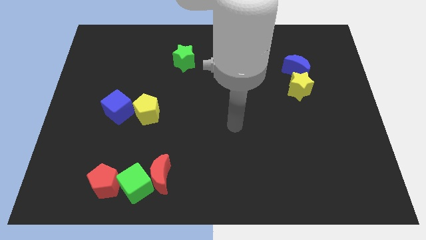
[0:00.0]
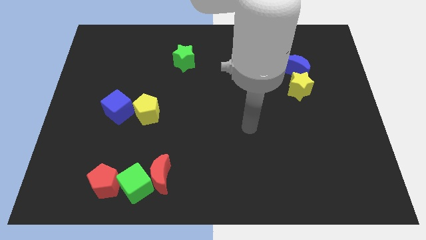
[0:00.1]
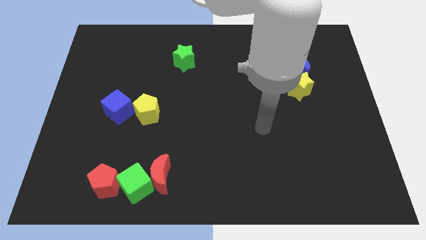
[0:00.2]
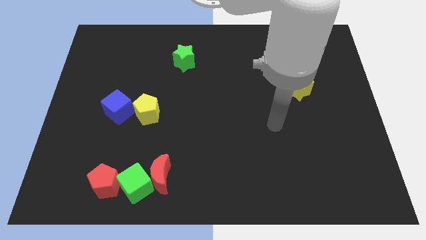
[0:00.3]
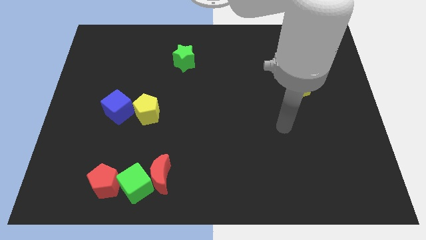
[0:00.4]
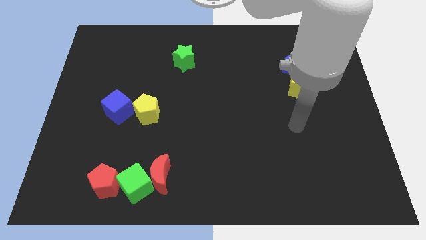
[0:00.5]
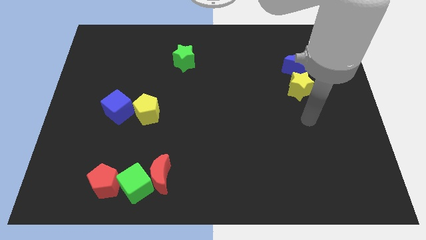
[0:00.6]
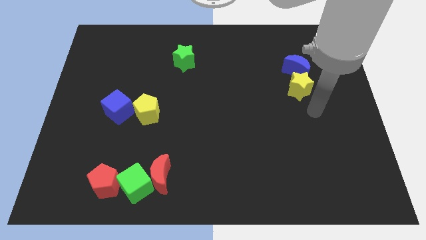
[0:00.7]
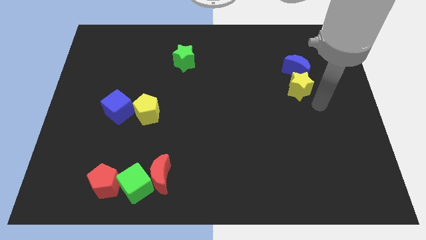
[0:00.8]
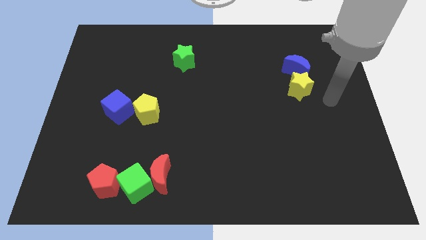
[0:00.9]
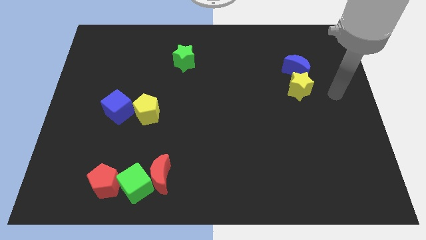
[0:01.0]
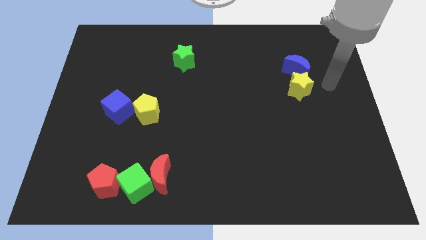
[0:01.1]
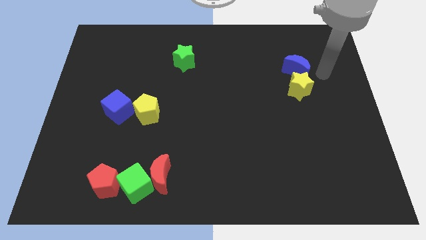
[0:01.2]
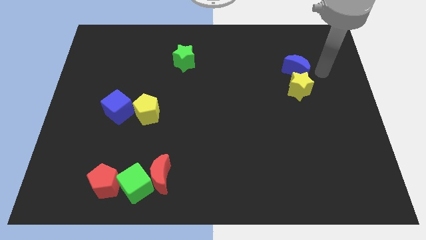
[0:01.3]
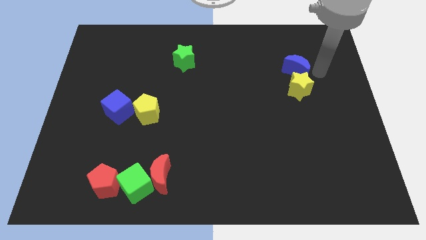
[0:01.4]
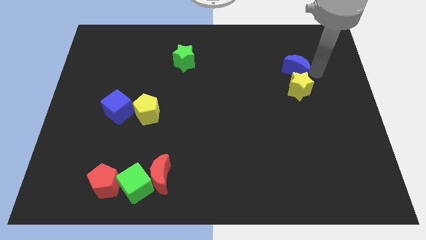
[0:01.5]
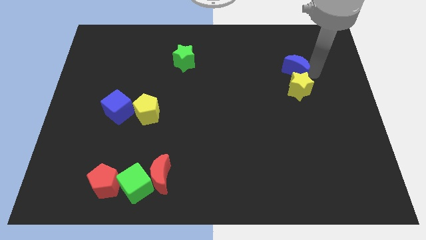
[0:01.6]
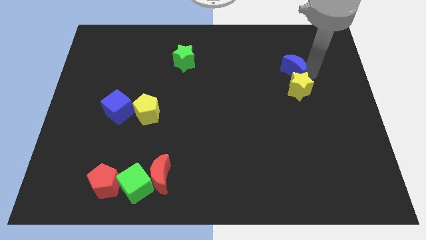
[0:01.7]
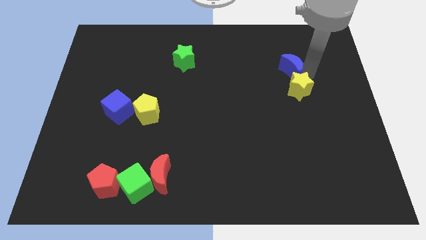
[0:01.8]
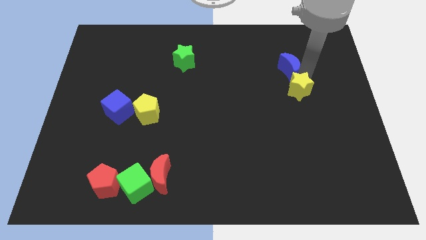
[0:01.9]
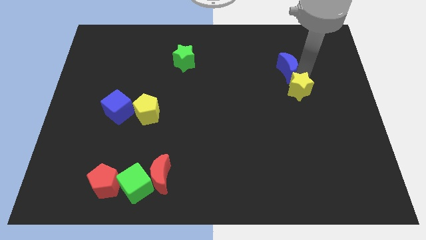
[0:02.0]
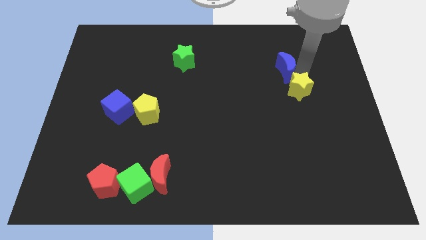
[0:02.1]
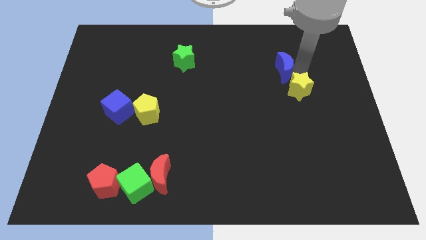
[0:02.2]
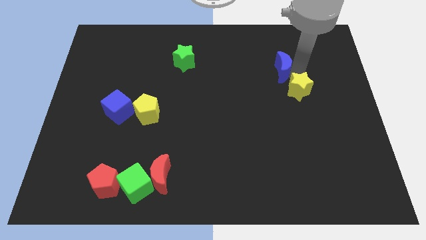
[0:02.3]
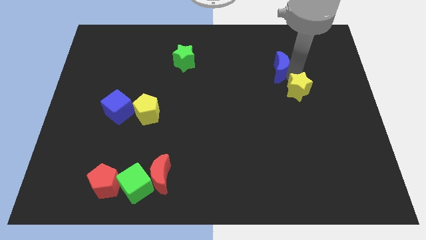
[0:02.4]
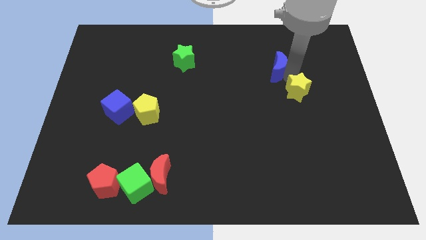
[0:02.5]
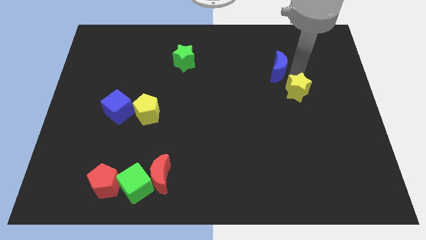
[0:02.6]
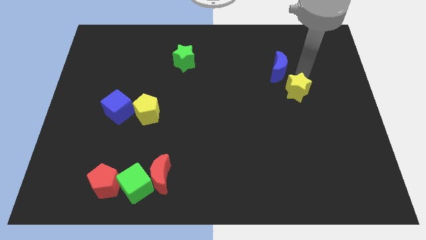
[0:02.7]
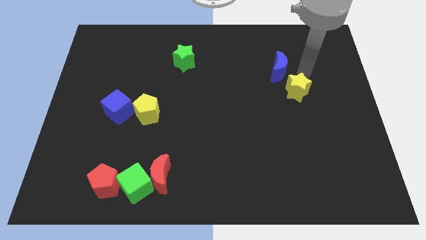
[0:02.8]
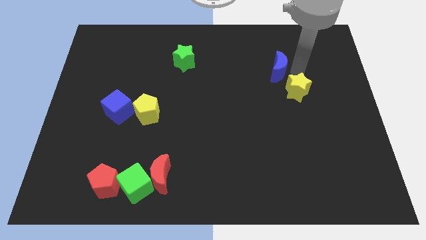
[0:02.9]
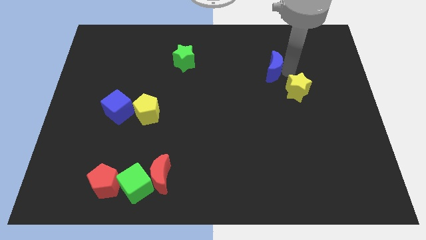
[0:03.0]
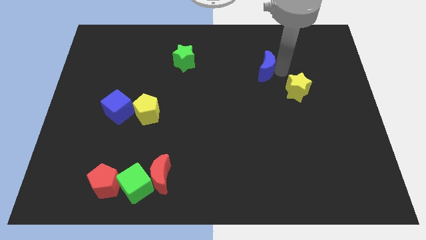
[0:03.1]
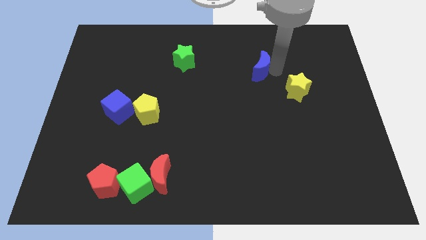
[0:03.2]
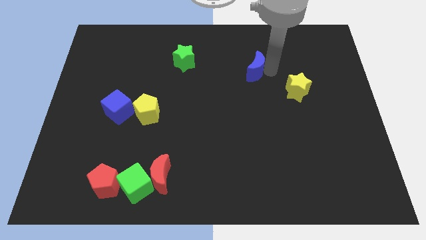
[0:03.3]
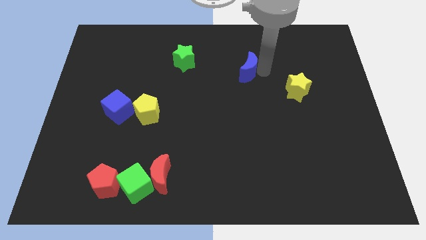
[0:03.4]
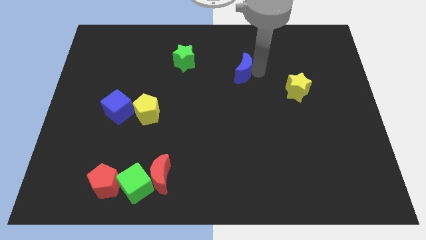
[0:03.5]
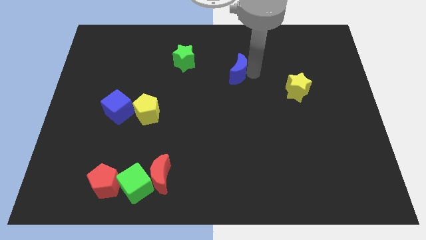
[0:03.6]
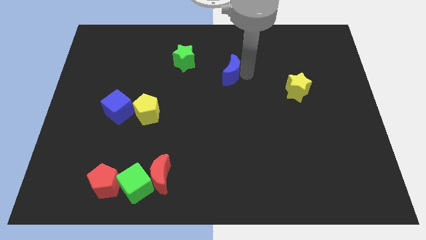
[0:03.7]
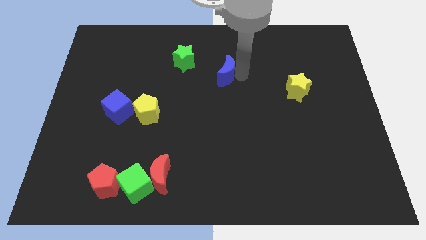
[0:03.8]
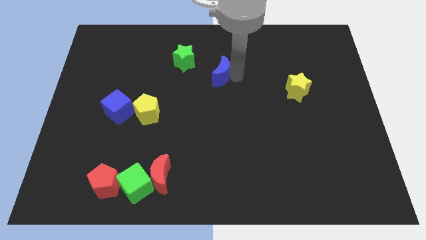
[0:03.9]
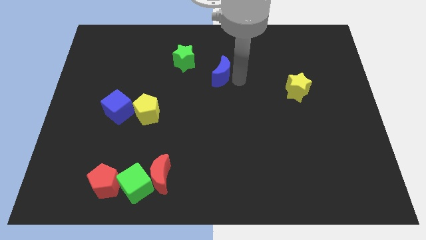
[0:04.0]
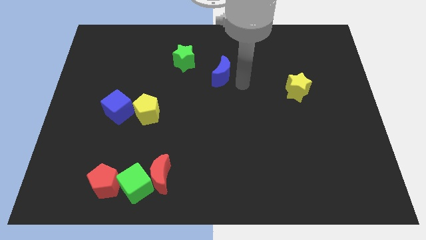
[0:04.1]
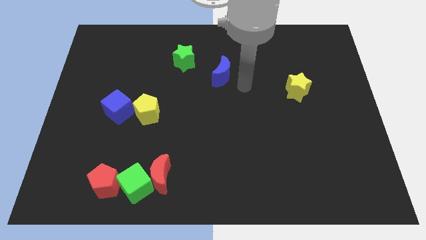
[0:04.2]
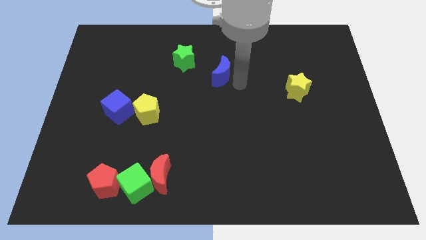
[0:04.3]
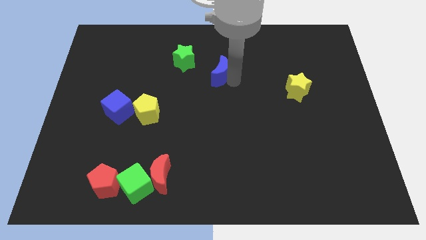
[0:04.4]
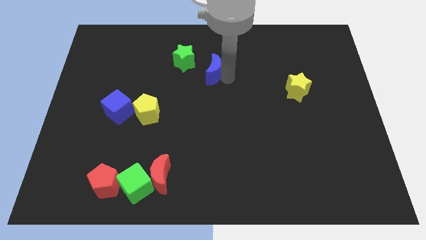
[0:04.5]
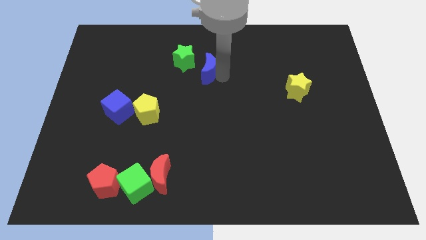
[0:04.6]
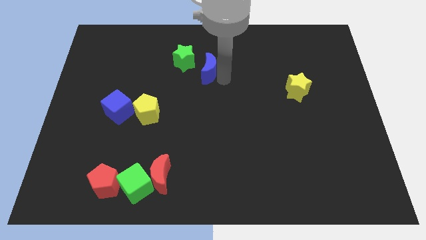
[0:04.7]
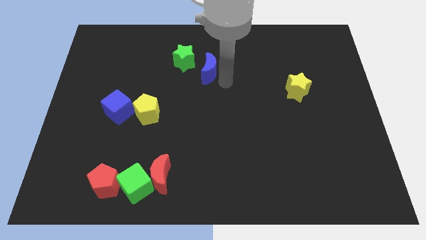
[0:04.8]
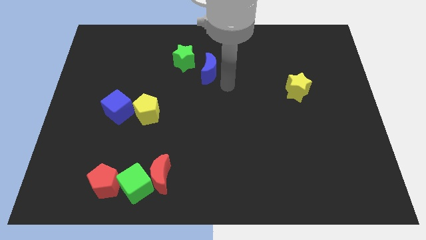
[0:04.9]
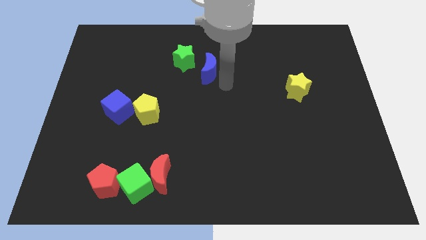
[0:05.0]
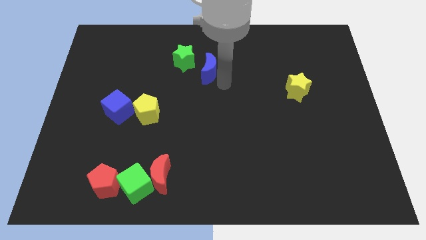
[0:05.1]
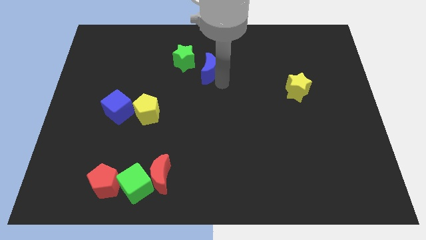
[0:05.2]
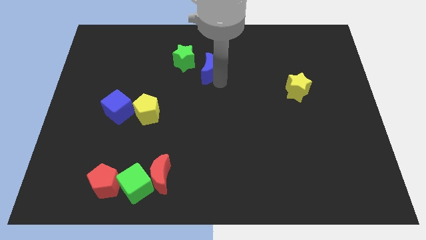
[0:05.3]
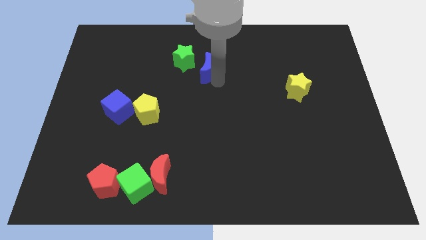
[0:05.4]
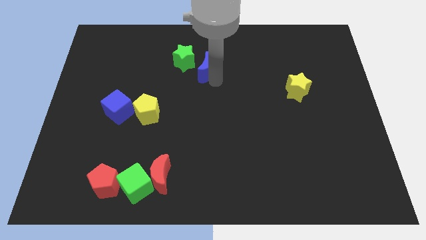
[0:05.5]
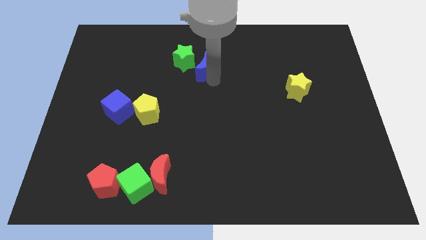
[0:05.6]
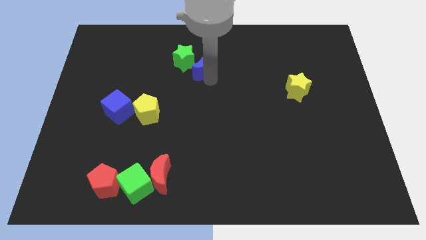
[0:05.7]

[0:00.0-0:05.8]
put the blue moon to the green star

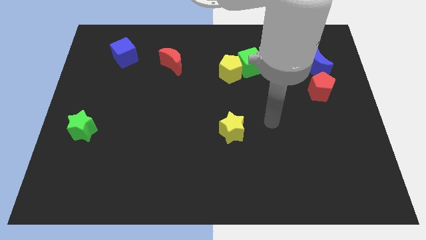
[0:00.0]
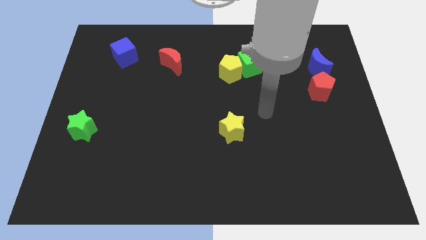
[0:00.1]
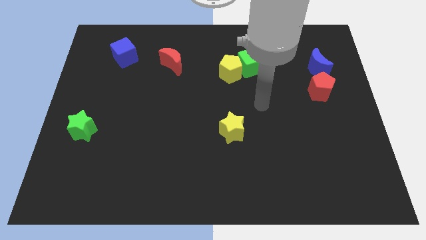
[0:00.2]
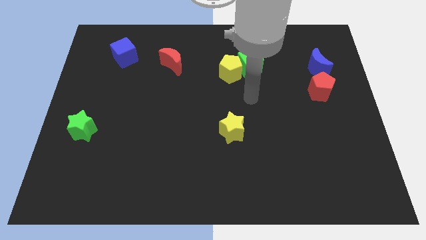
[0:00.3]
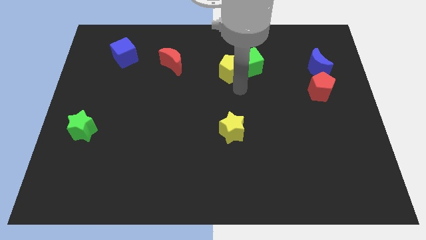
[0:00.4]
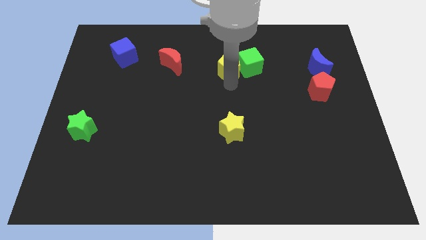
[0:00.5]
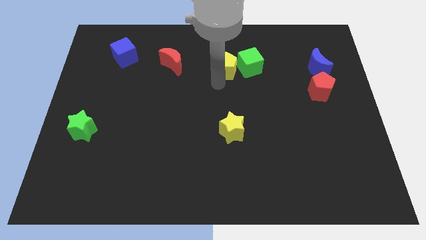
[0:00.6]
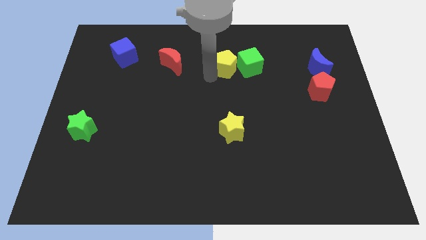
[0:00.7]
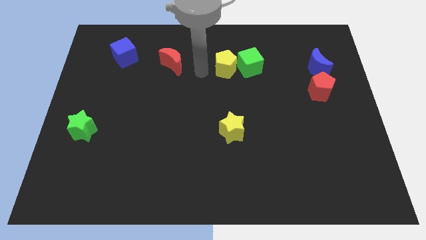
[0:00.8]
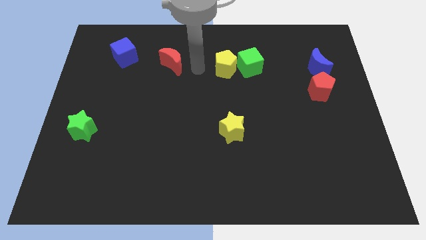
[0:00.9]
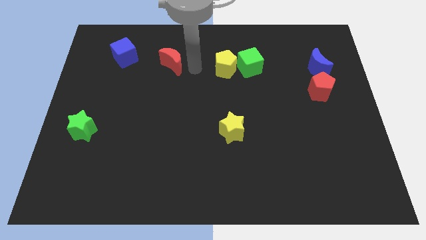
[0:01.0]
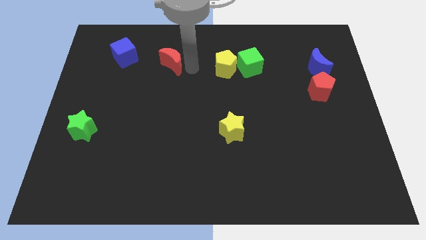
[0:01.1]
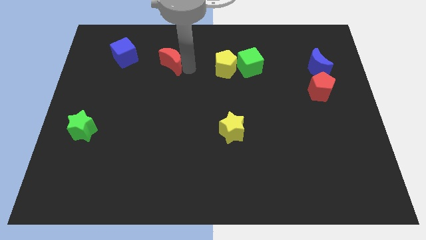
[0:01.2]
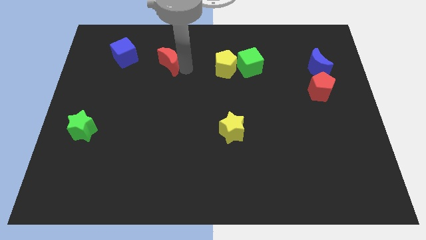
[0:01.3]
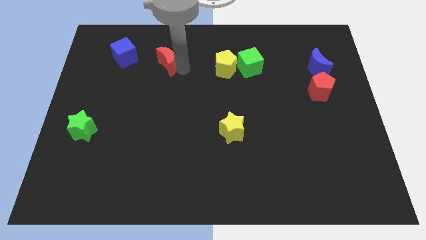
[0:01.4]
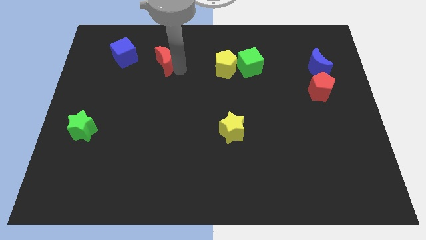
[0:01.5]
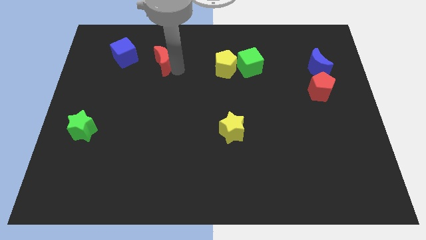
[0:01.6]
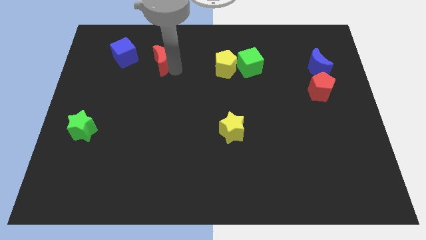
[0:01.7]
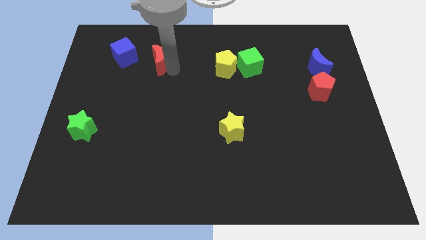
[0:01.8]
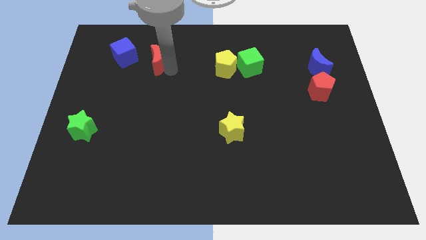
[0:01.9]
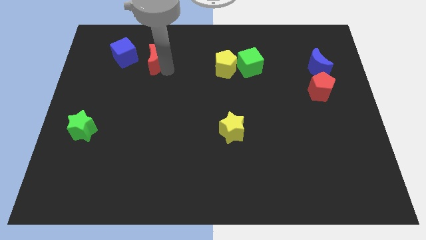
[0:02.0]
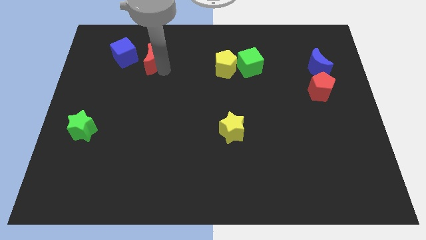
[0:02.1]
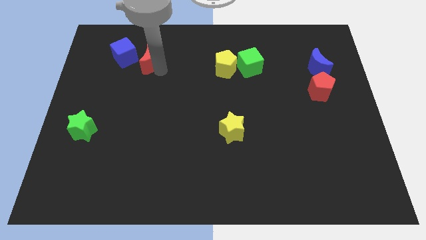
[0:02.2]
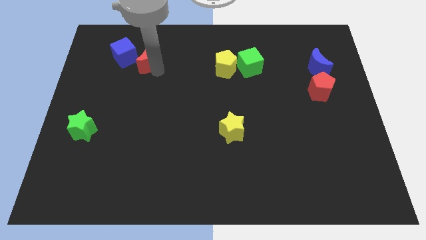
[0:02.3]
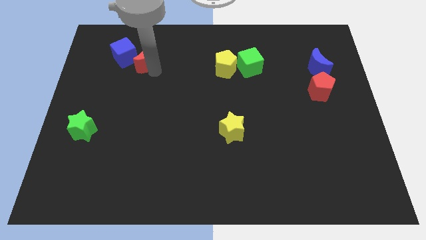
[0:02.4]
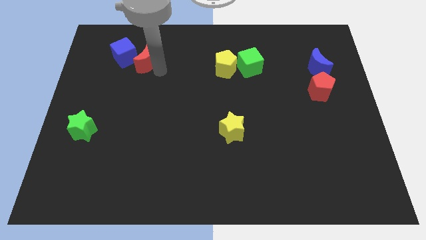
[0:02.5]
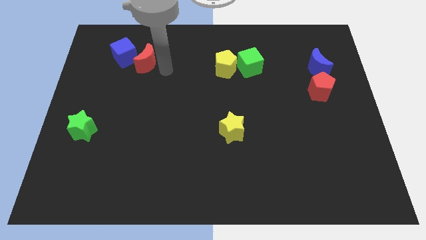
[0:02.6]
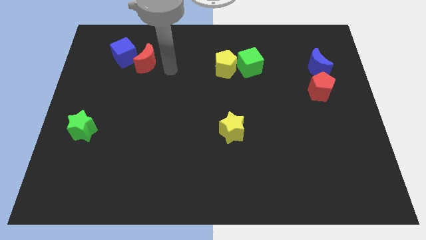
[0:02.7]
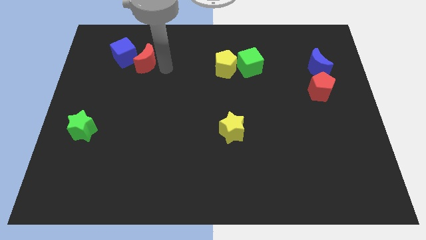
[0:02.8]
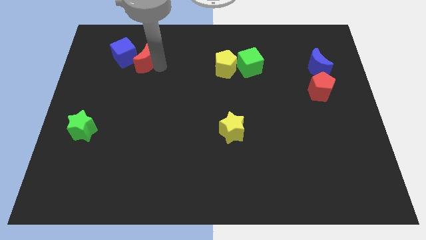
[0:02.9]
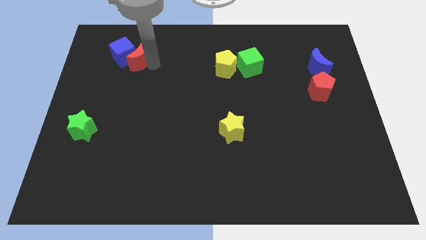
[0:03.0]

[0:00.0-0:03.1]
move the red moon next to the blue cube
